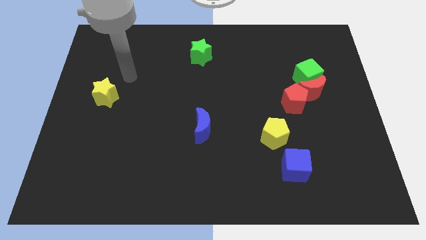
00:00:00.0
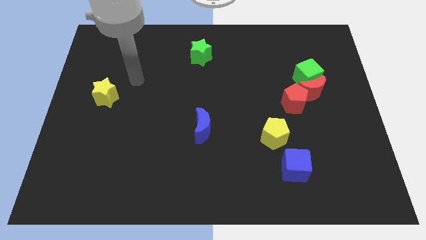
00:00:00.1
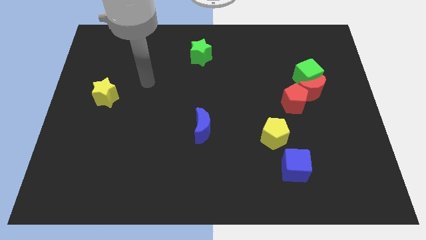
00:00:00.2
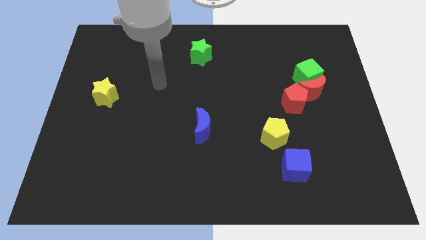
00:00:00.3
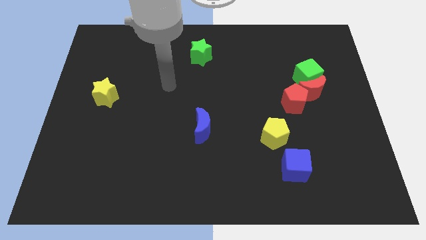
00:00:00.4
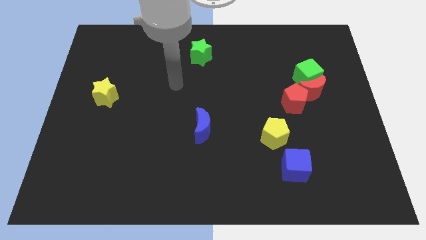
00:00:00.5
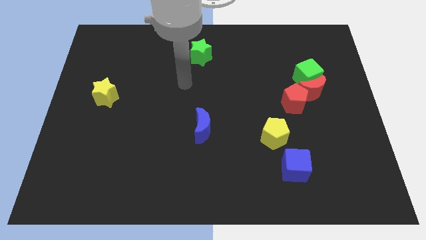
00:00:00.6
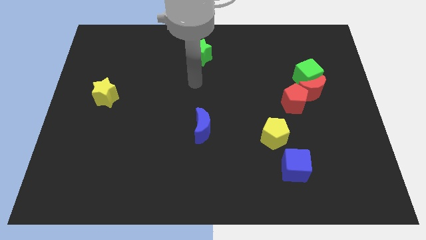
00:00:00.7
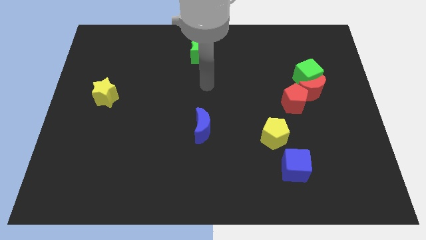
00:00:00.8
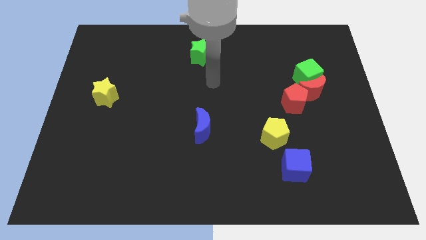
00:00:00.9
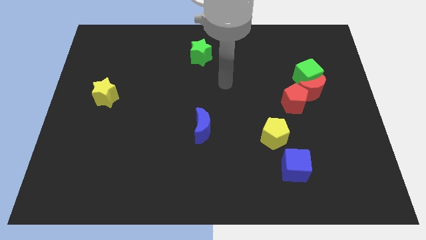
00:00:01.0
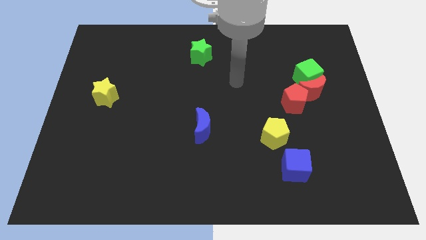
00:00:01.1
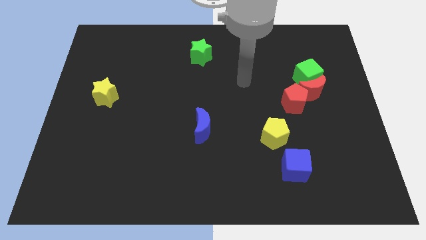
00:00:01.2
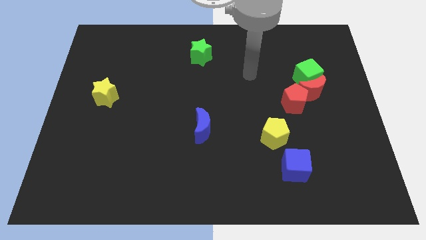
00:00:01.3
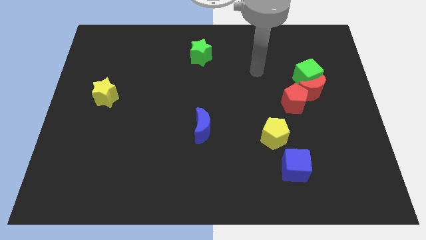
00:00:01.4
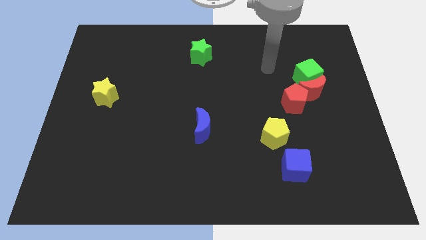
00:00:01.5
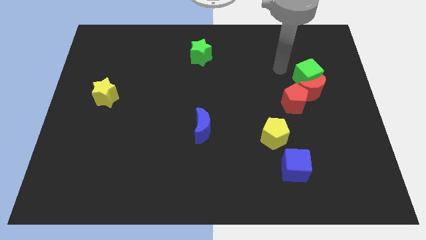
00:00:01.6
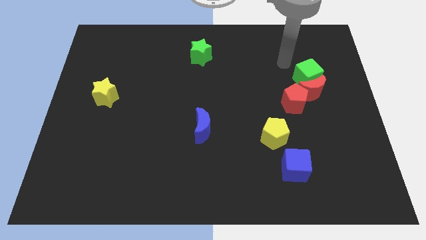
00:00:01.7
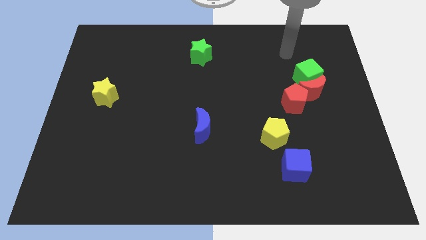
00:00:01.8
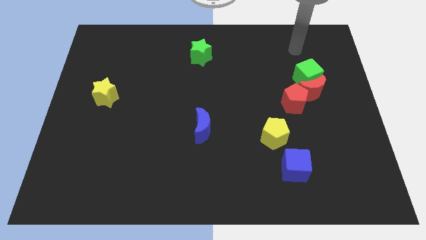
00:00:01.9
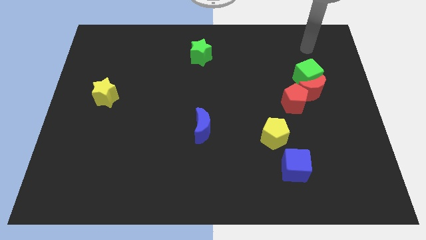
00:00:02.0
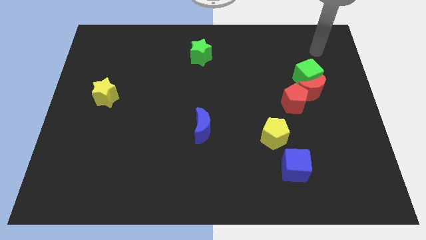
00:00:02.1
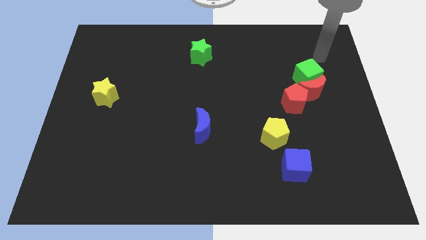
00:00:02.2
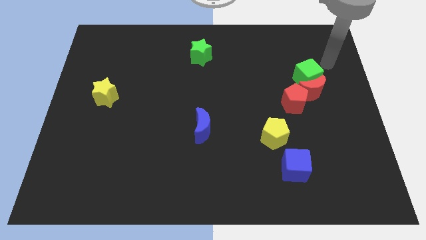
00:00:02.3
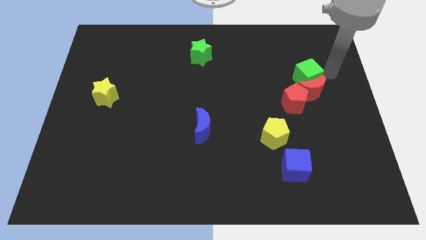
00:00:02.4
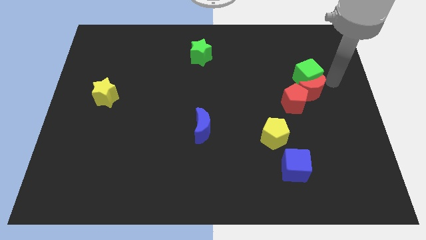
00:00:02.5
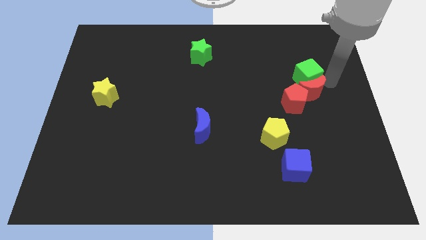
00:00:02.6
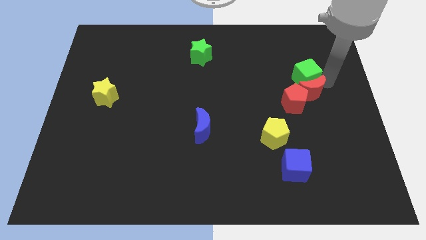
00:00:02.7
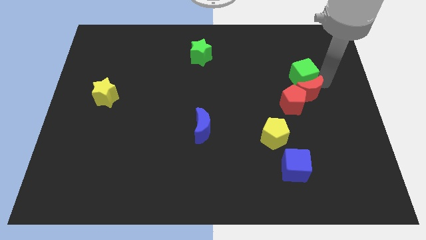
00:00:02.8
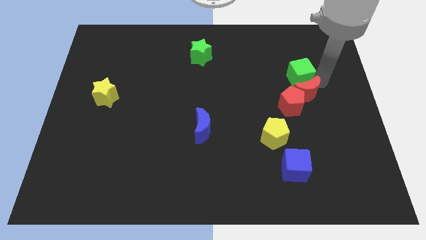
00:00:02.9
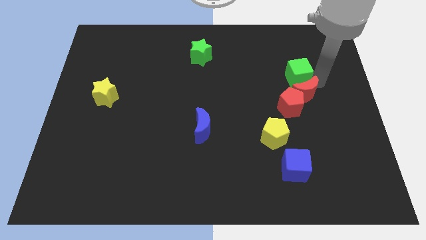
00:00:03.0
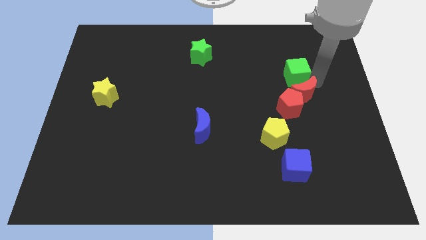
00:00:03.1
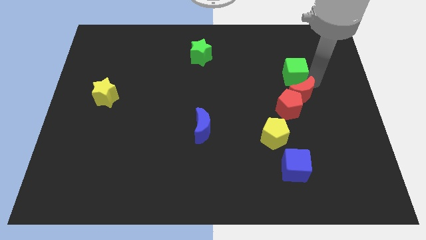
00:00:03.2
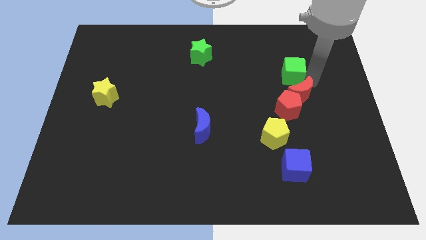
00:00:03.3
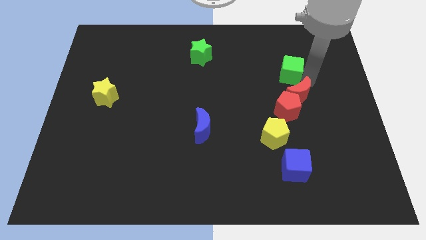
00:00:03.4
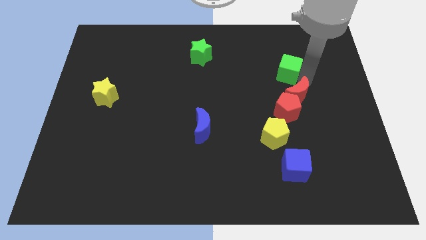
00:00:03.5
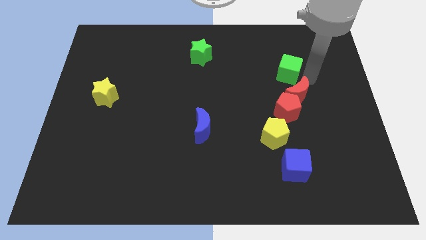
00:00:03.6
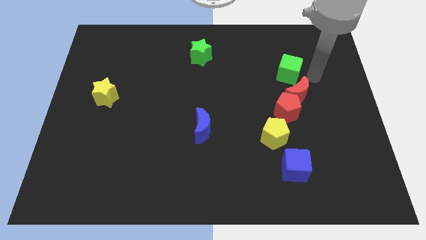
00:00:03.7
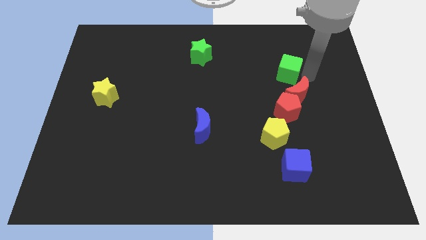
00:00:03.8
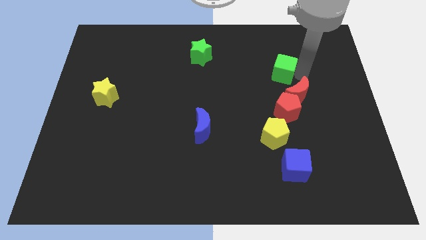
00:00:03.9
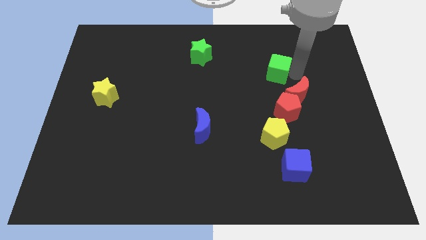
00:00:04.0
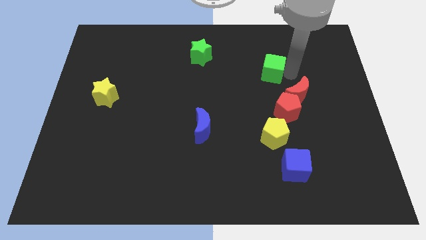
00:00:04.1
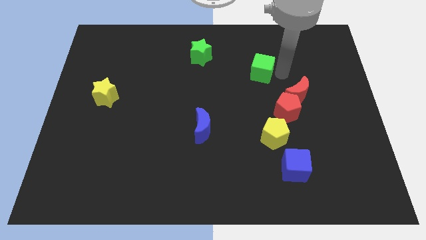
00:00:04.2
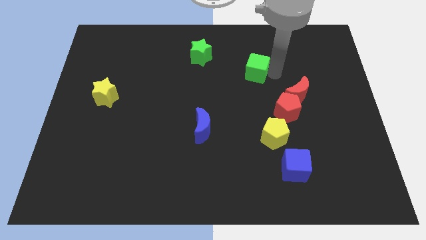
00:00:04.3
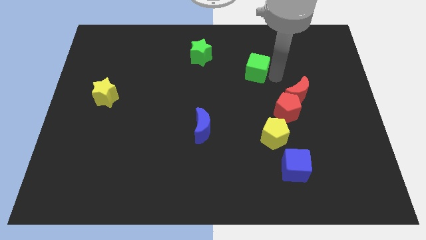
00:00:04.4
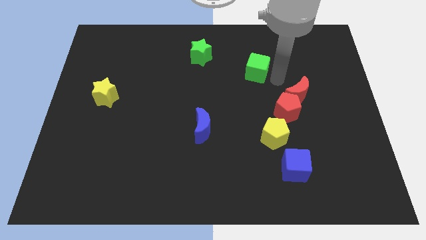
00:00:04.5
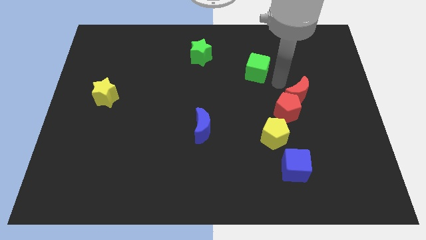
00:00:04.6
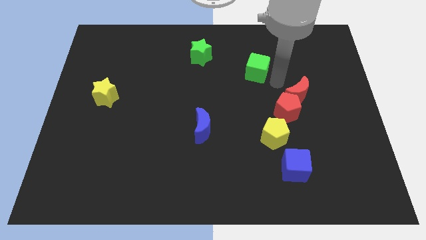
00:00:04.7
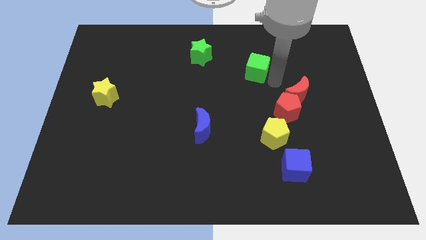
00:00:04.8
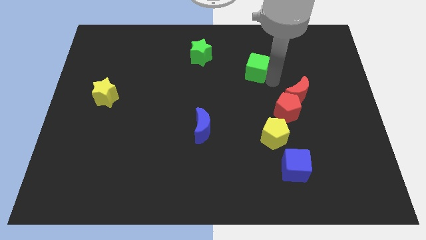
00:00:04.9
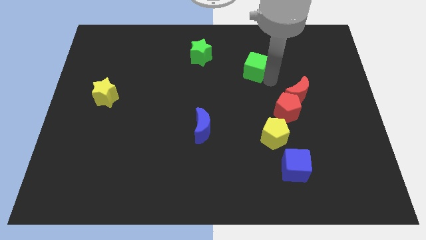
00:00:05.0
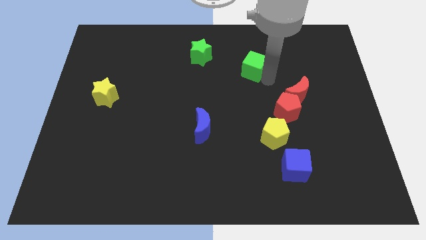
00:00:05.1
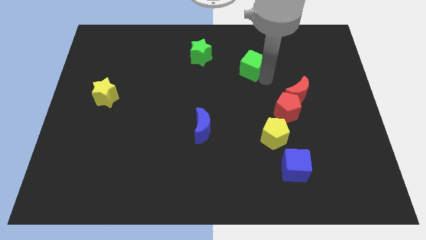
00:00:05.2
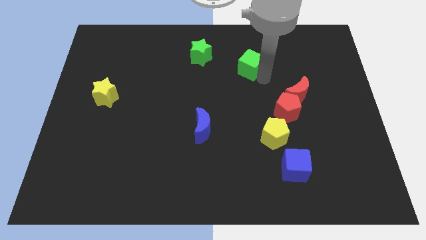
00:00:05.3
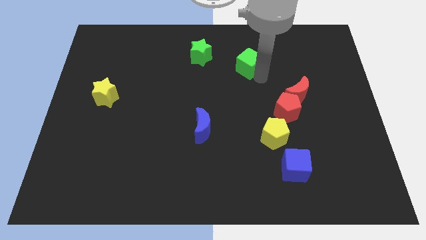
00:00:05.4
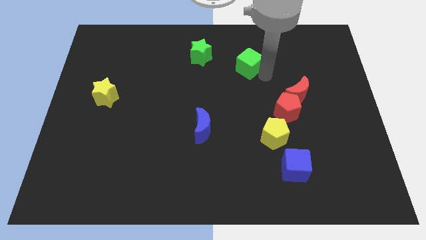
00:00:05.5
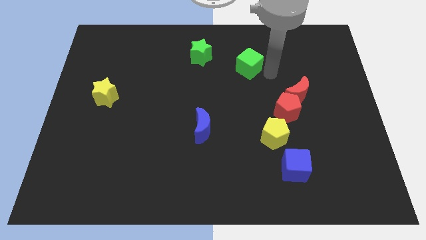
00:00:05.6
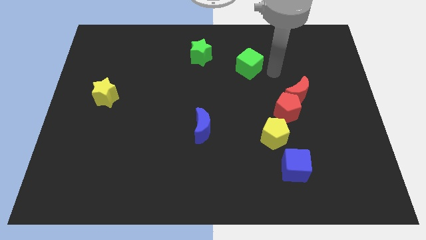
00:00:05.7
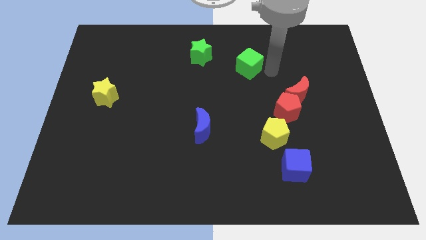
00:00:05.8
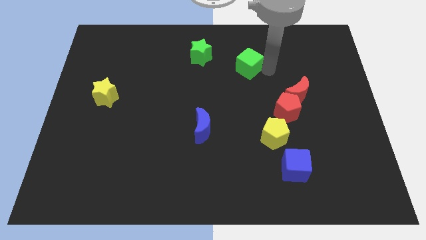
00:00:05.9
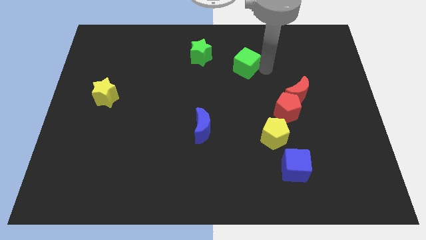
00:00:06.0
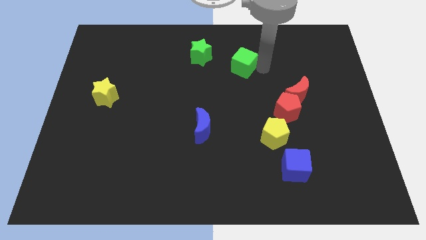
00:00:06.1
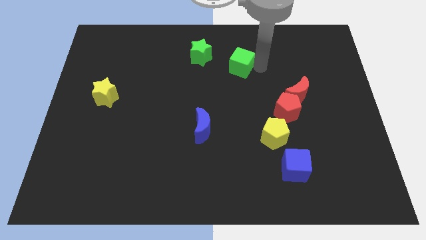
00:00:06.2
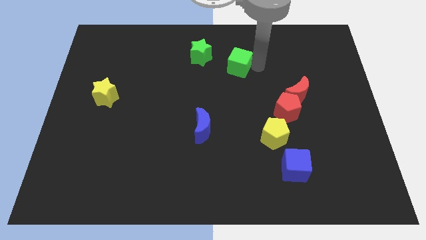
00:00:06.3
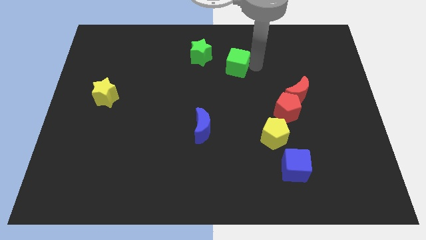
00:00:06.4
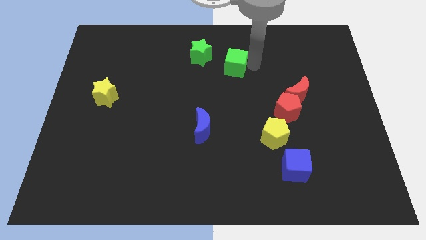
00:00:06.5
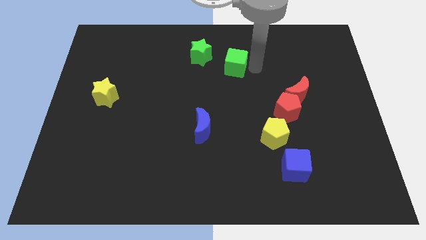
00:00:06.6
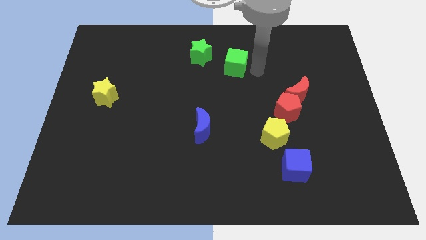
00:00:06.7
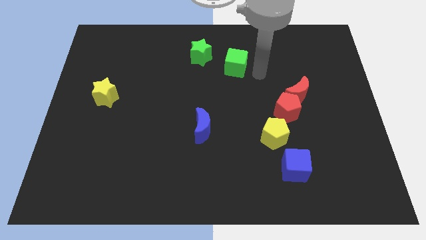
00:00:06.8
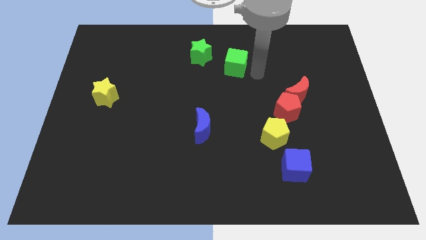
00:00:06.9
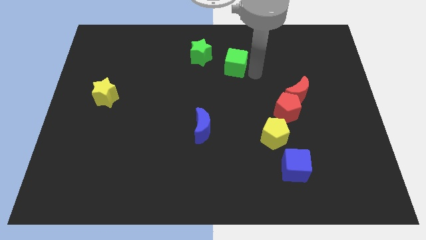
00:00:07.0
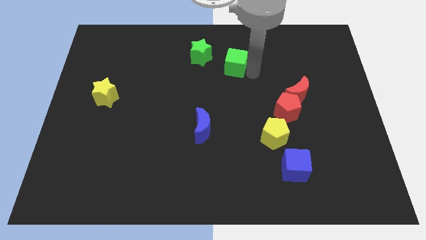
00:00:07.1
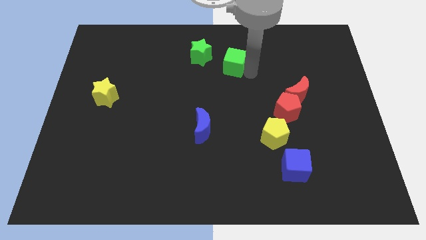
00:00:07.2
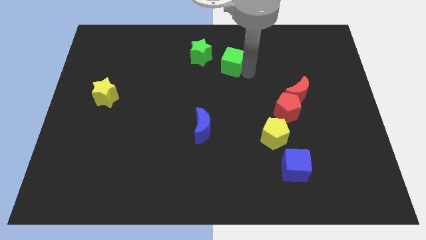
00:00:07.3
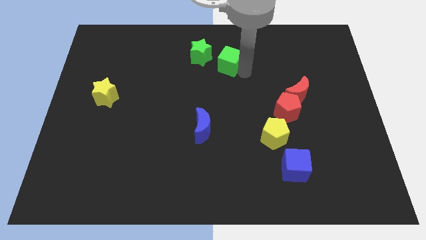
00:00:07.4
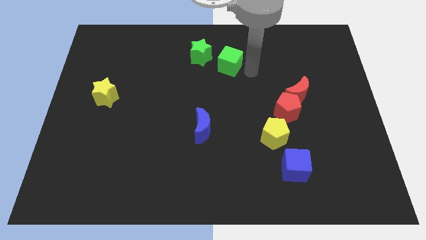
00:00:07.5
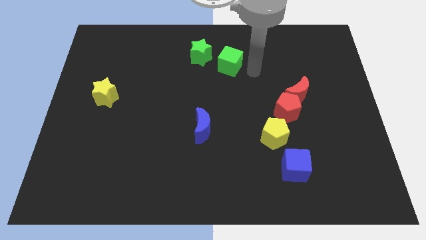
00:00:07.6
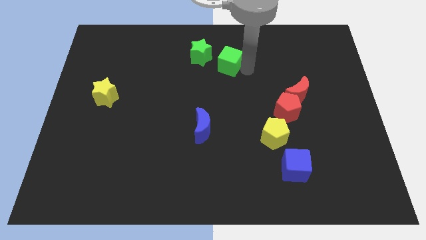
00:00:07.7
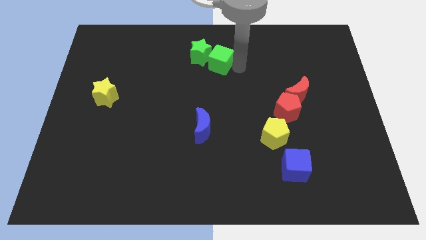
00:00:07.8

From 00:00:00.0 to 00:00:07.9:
slide the green cube close to the green star
